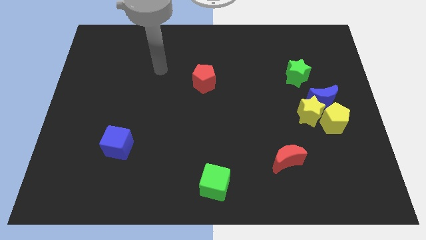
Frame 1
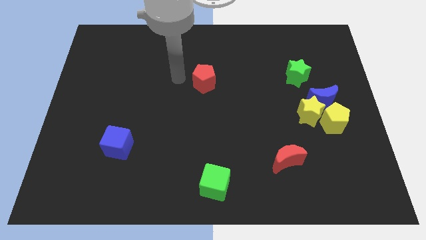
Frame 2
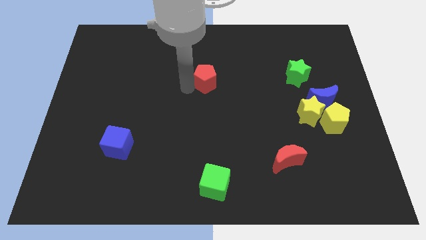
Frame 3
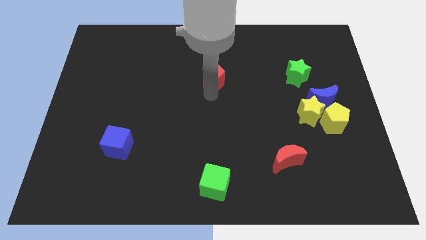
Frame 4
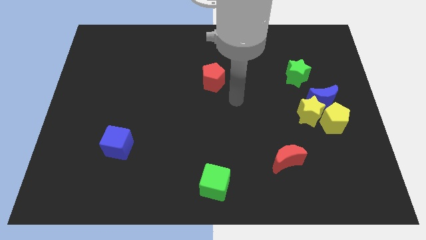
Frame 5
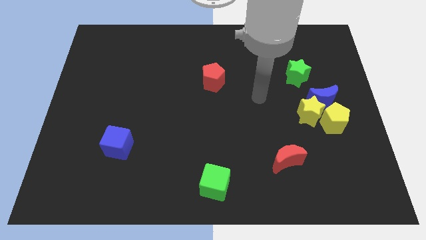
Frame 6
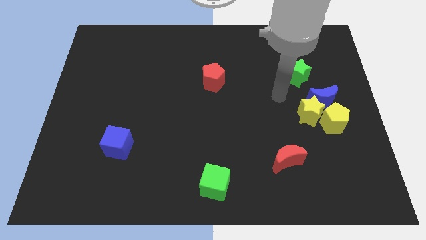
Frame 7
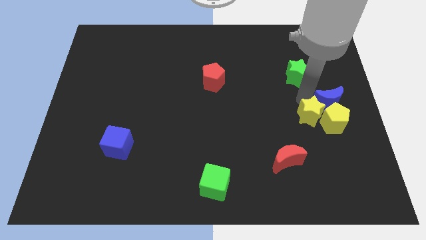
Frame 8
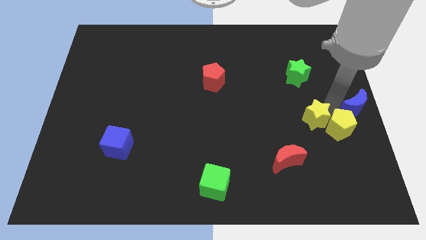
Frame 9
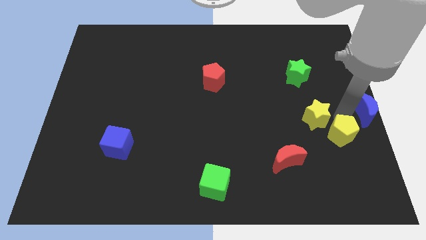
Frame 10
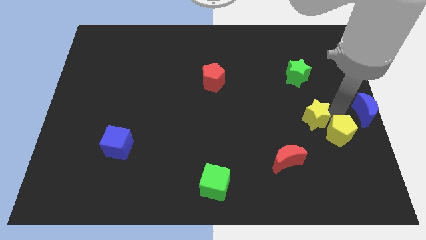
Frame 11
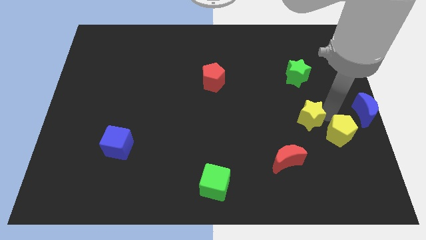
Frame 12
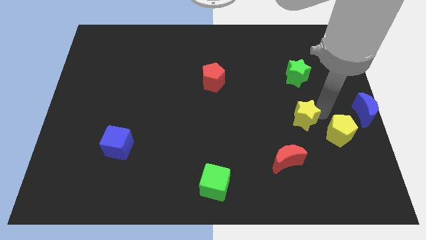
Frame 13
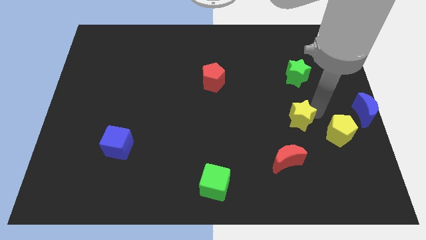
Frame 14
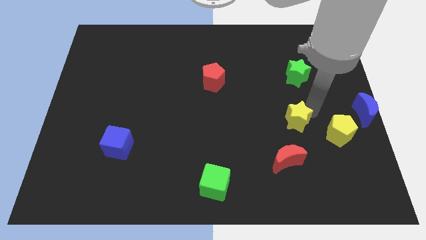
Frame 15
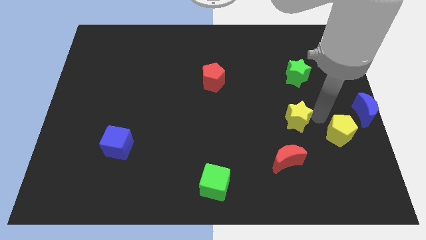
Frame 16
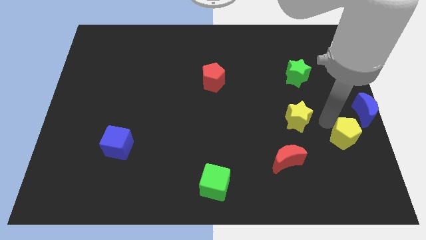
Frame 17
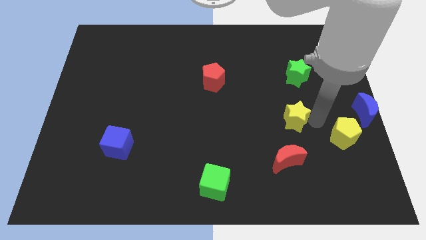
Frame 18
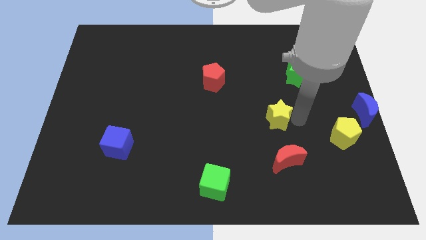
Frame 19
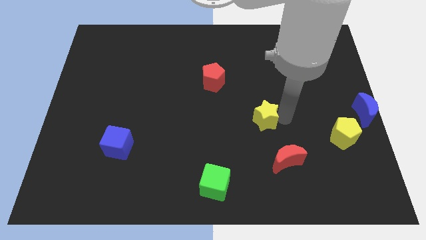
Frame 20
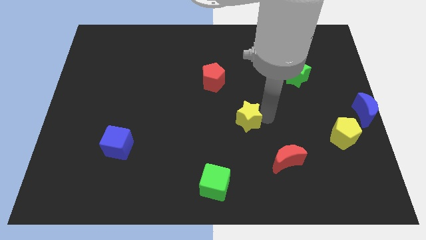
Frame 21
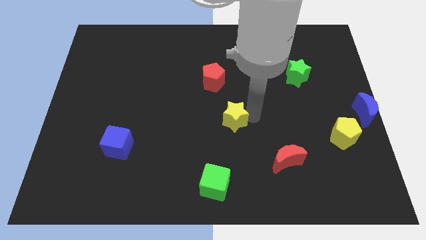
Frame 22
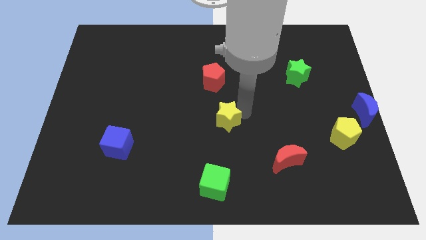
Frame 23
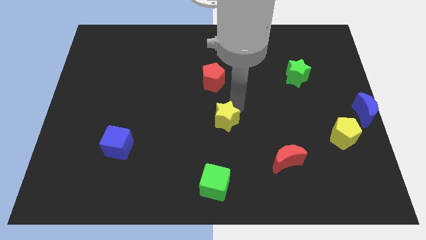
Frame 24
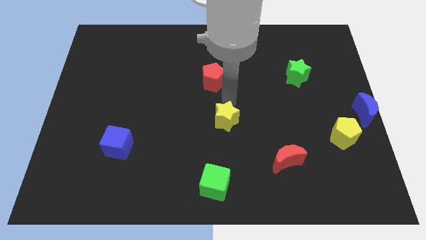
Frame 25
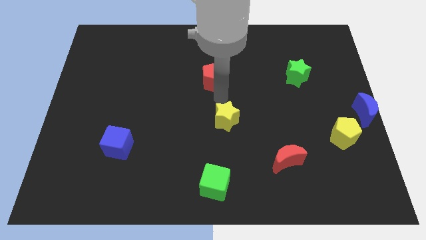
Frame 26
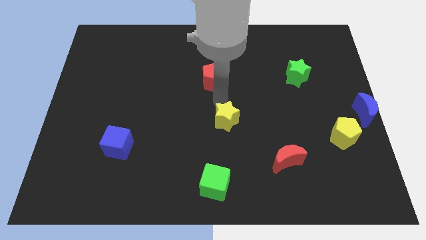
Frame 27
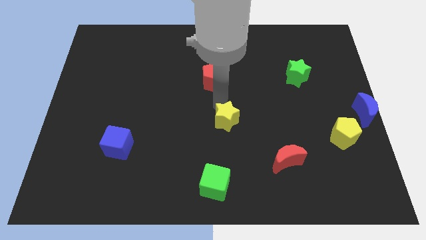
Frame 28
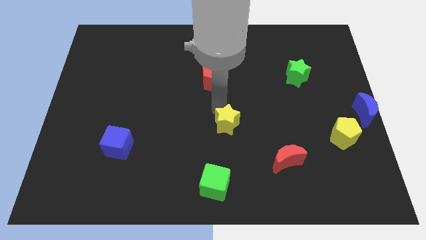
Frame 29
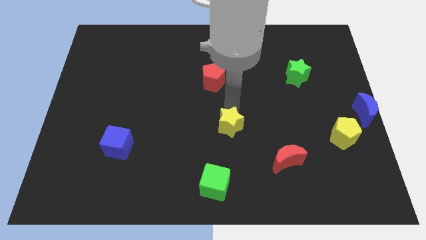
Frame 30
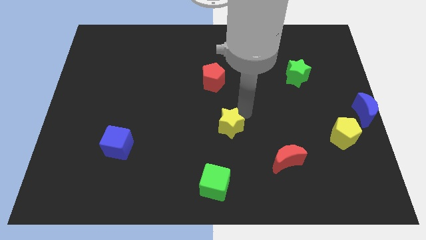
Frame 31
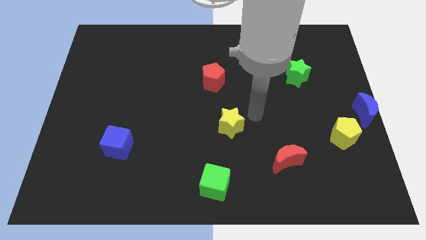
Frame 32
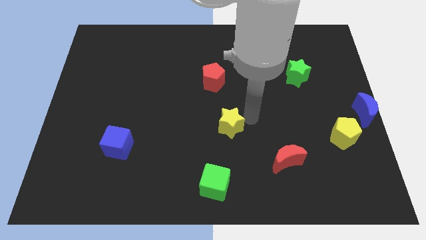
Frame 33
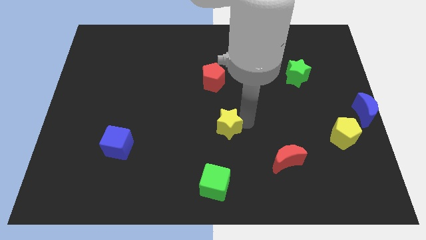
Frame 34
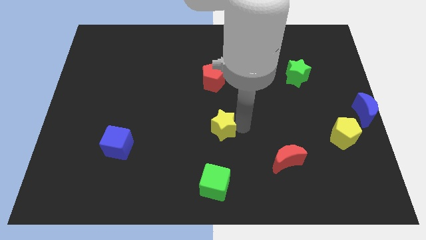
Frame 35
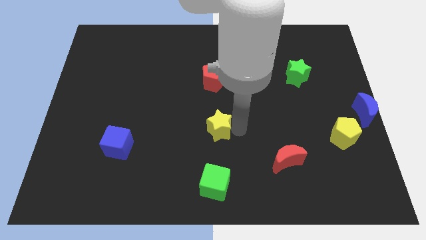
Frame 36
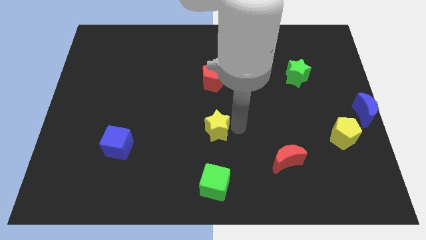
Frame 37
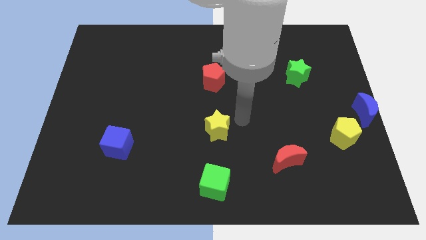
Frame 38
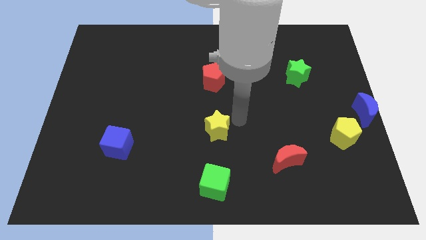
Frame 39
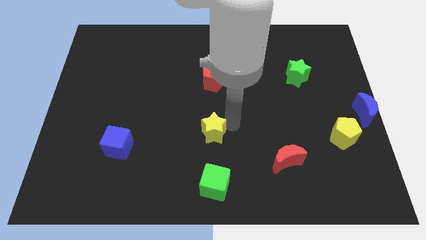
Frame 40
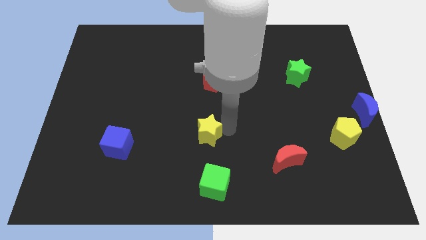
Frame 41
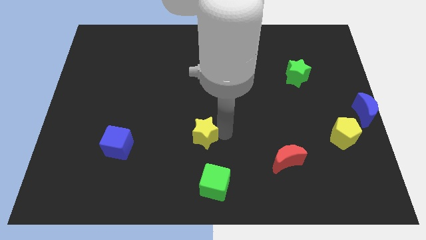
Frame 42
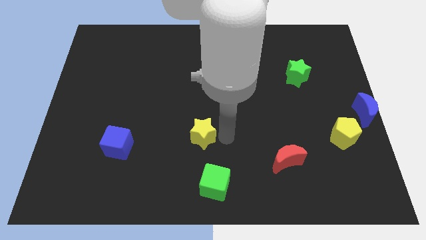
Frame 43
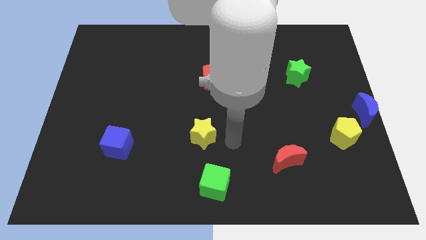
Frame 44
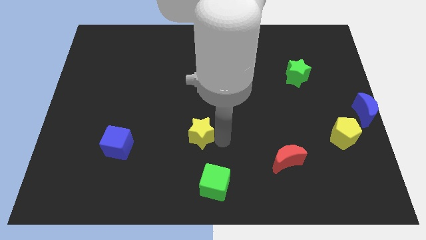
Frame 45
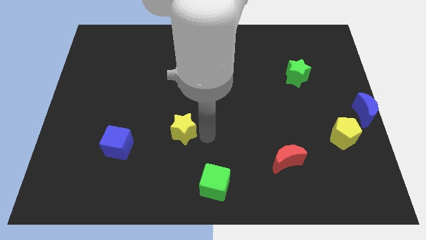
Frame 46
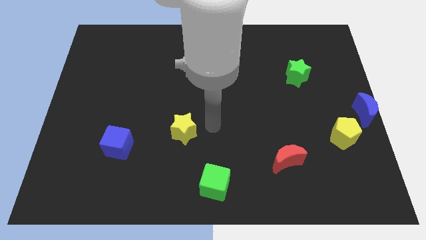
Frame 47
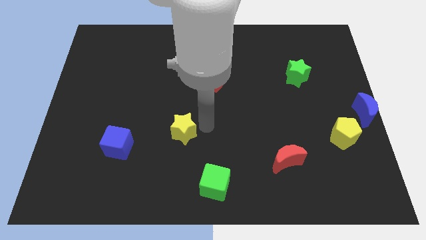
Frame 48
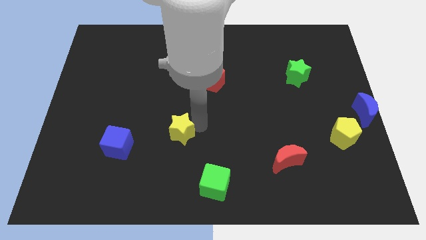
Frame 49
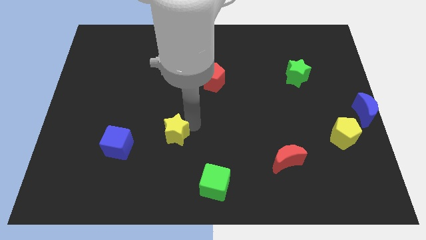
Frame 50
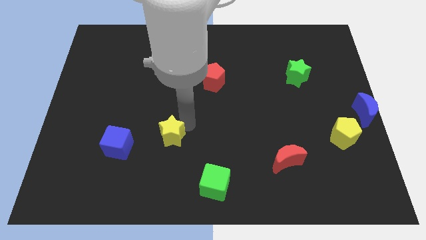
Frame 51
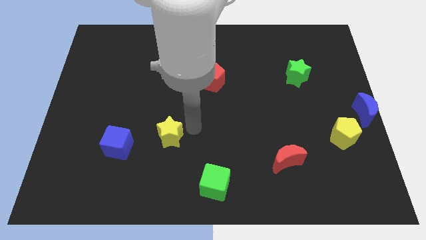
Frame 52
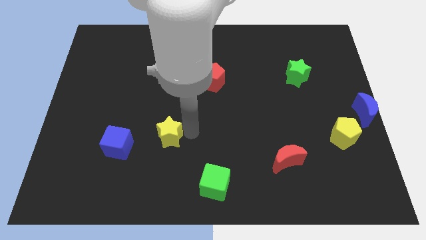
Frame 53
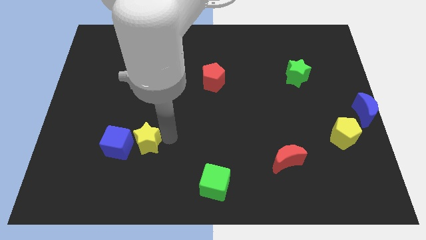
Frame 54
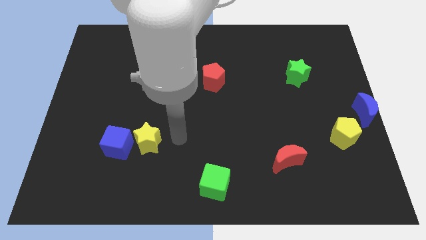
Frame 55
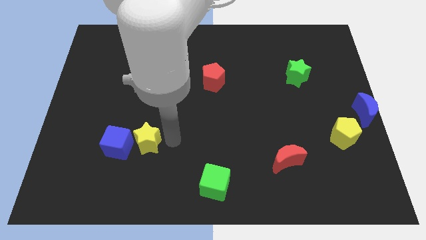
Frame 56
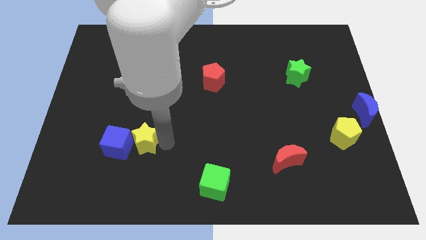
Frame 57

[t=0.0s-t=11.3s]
slide the yellow star towards the blue cube

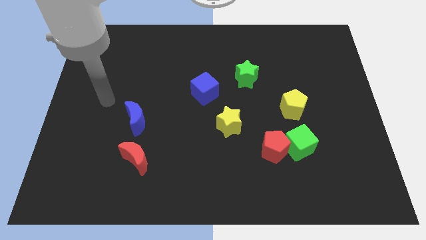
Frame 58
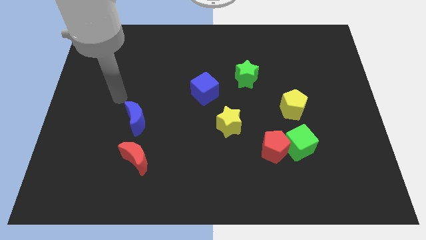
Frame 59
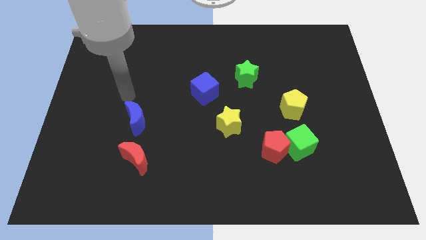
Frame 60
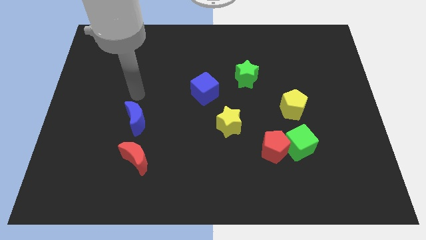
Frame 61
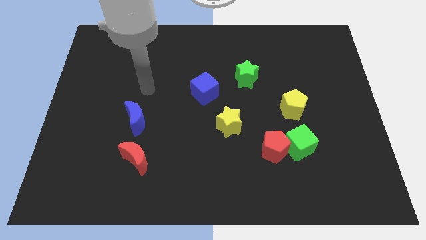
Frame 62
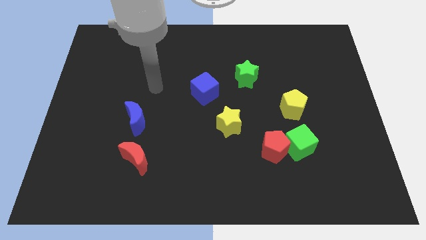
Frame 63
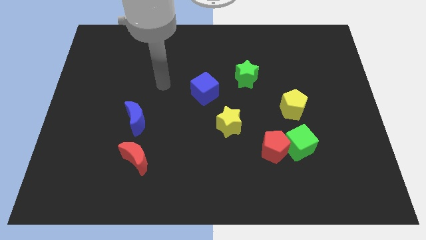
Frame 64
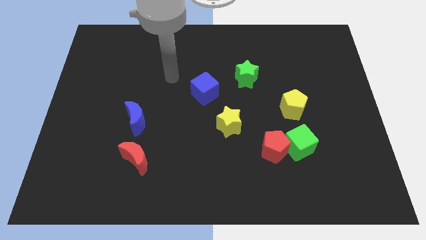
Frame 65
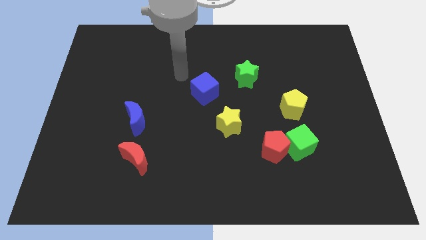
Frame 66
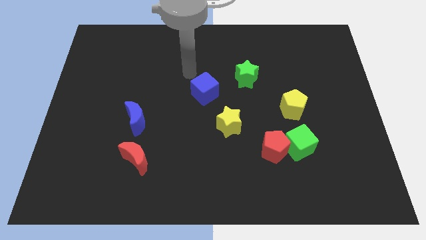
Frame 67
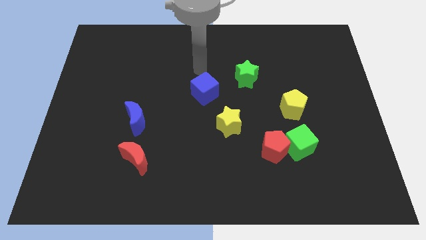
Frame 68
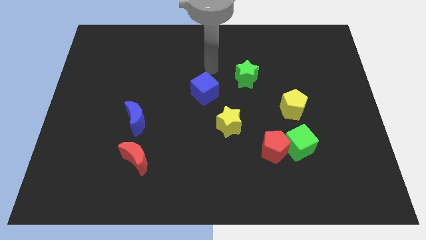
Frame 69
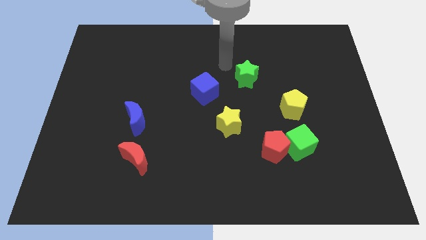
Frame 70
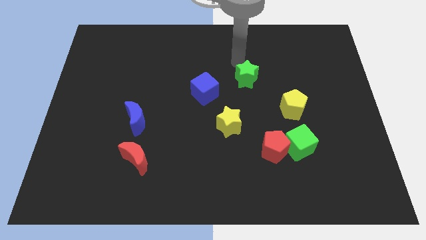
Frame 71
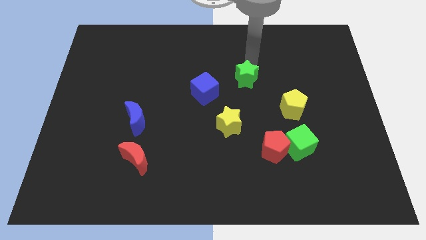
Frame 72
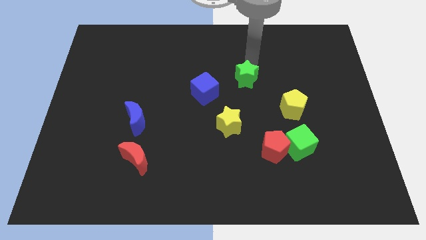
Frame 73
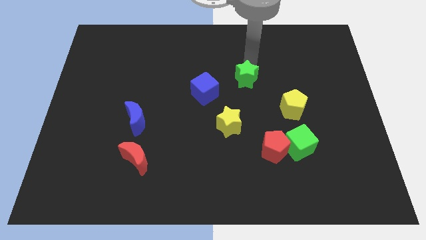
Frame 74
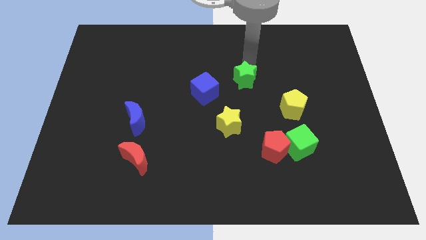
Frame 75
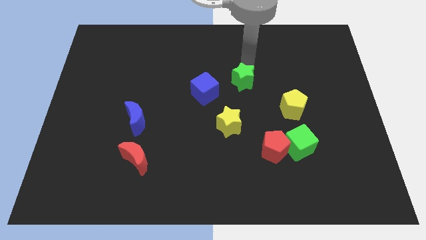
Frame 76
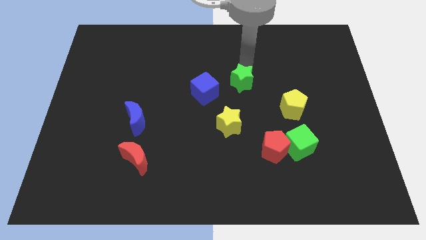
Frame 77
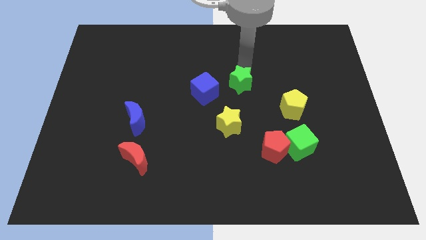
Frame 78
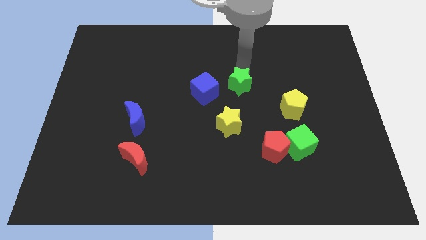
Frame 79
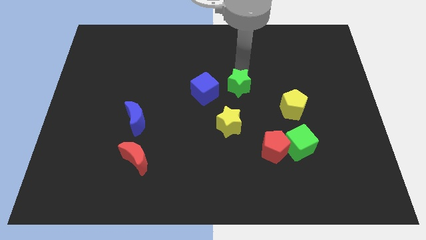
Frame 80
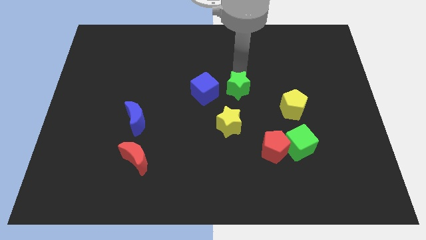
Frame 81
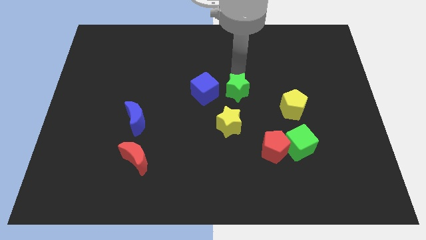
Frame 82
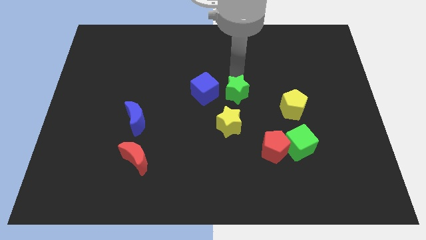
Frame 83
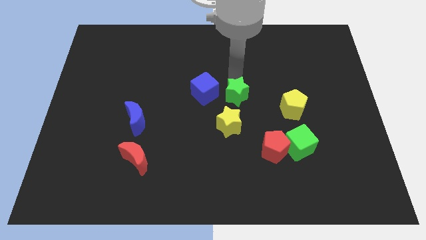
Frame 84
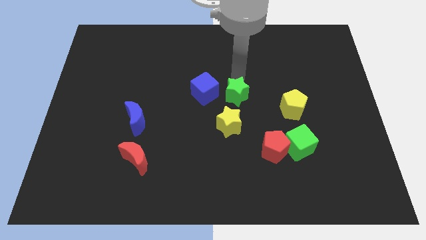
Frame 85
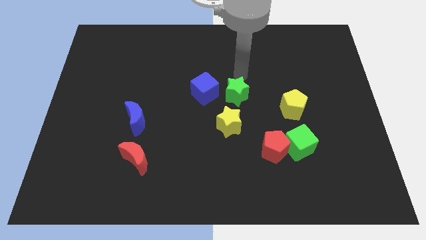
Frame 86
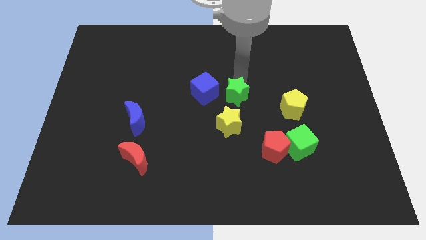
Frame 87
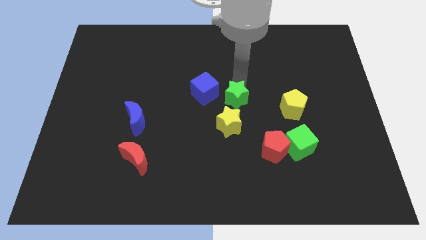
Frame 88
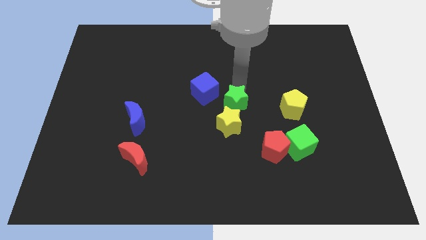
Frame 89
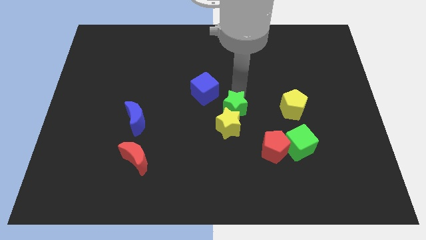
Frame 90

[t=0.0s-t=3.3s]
push the green star towards the yellow star
